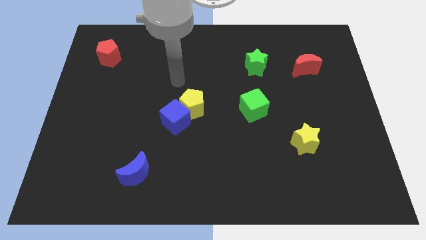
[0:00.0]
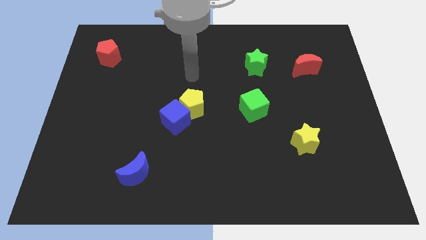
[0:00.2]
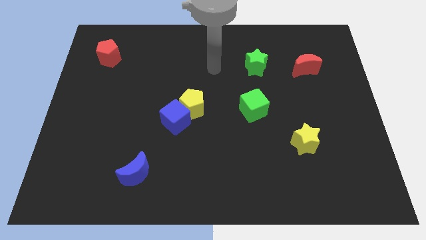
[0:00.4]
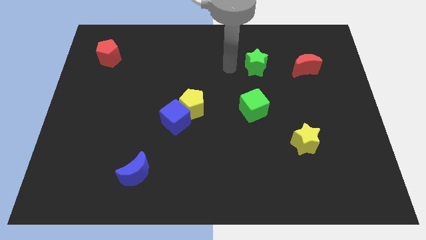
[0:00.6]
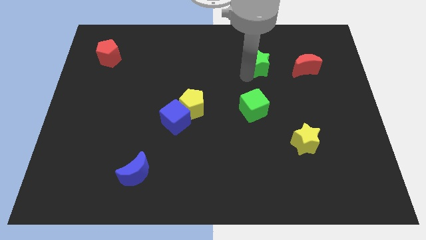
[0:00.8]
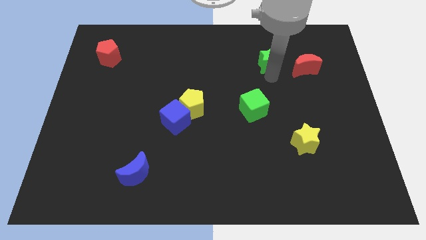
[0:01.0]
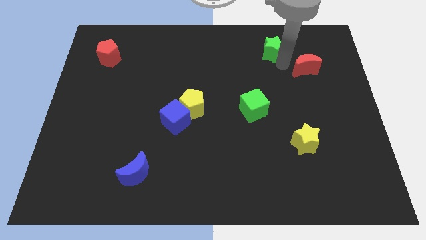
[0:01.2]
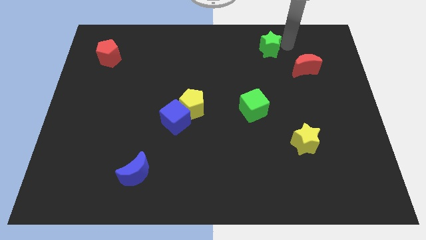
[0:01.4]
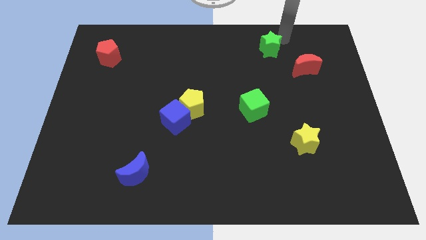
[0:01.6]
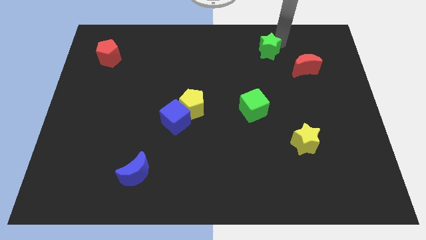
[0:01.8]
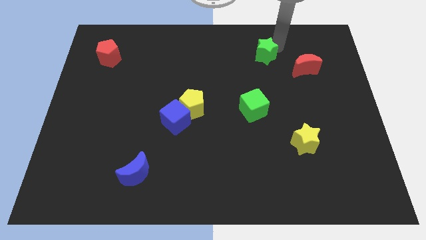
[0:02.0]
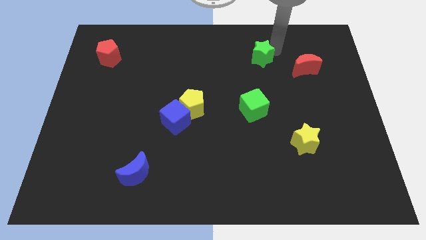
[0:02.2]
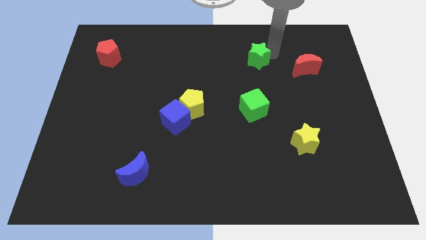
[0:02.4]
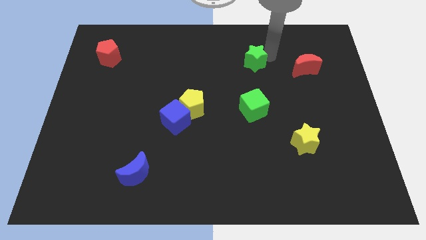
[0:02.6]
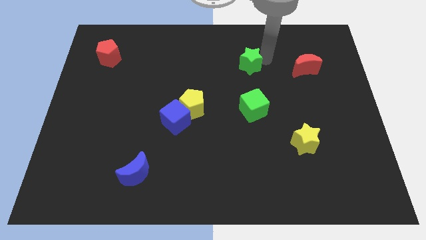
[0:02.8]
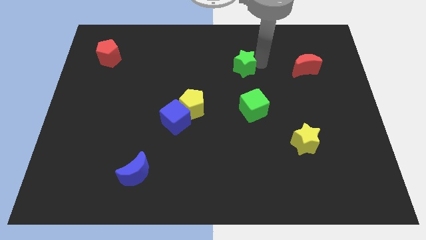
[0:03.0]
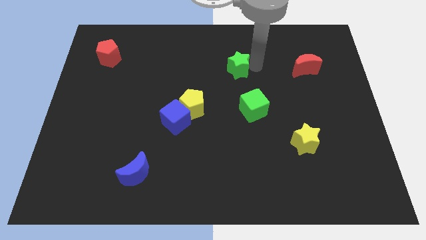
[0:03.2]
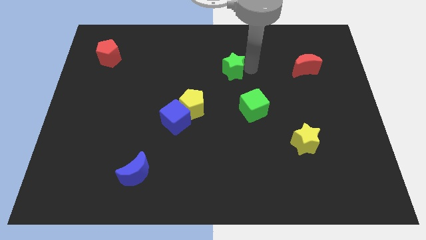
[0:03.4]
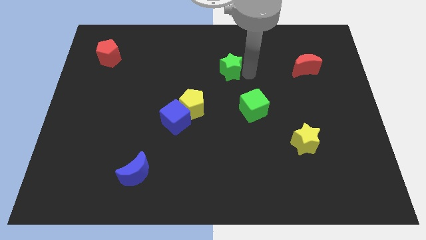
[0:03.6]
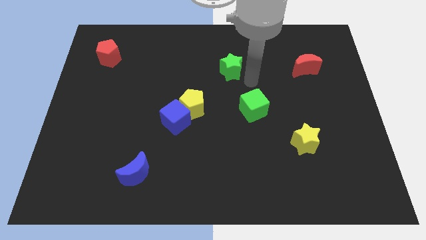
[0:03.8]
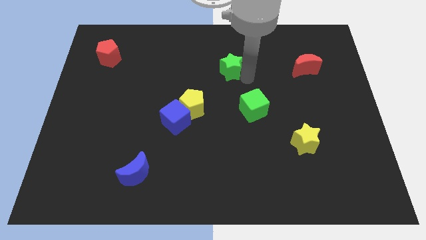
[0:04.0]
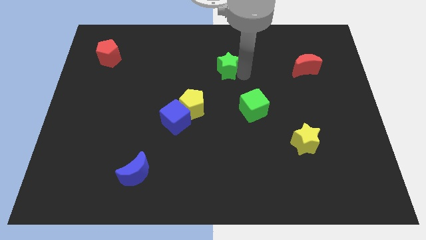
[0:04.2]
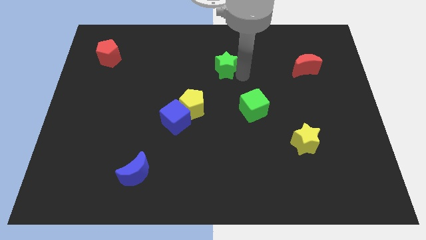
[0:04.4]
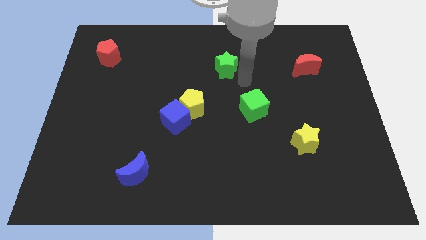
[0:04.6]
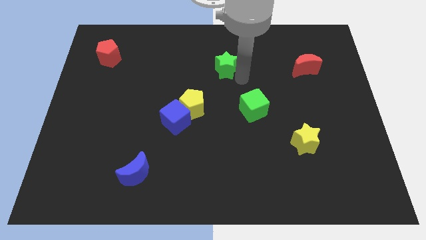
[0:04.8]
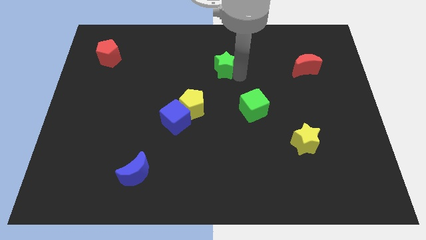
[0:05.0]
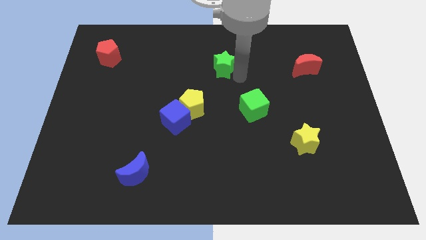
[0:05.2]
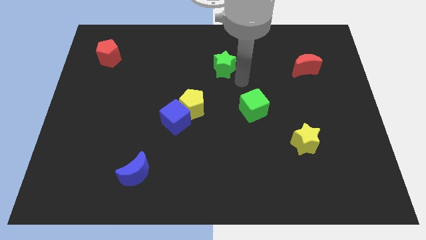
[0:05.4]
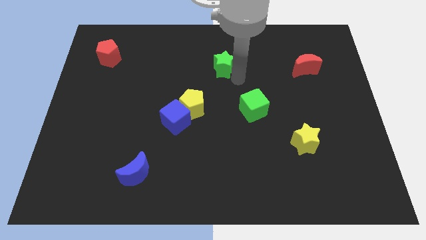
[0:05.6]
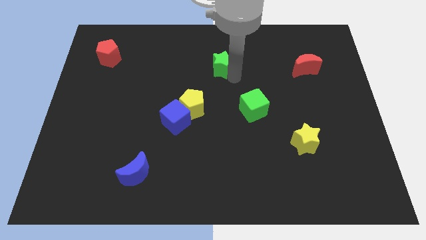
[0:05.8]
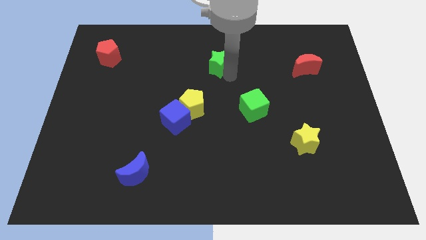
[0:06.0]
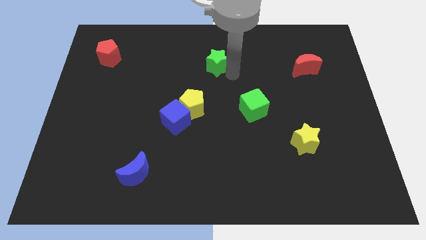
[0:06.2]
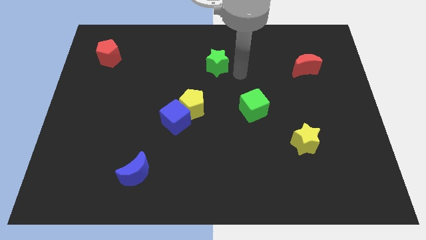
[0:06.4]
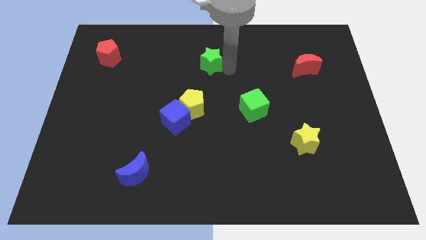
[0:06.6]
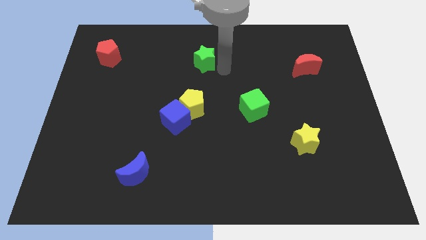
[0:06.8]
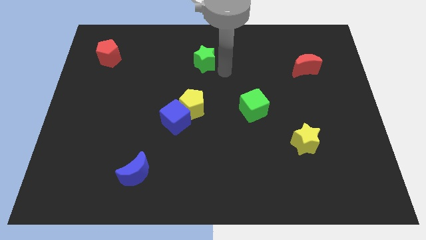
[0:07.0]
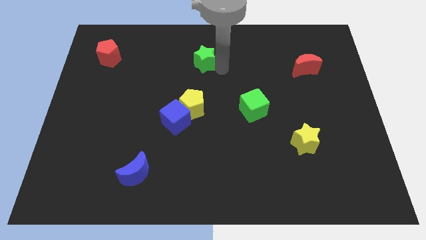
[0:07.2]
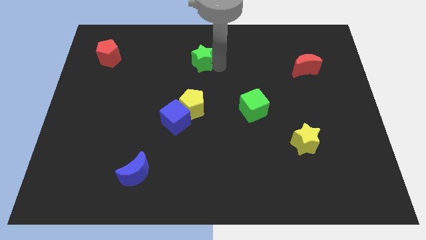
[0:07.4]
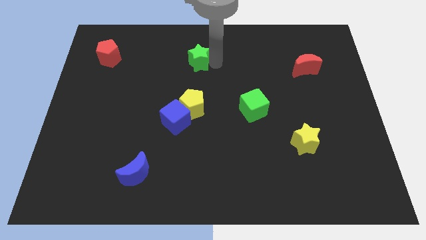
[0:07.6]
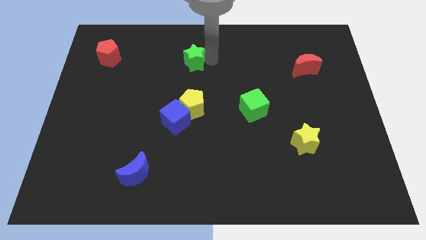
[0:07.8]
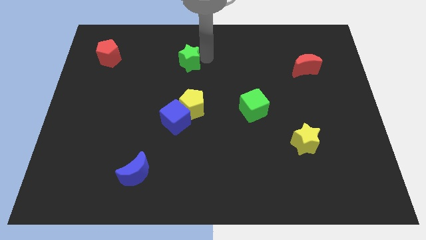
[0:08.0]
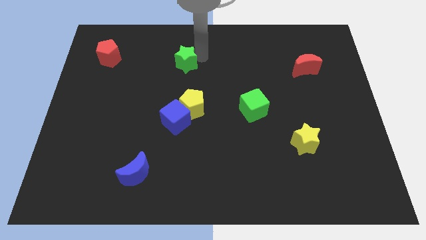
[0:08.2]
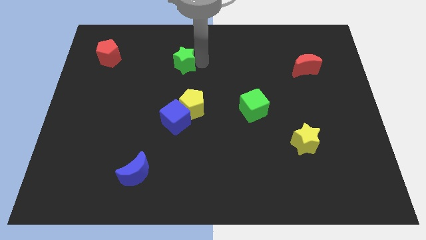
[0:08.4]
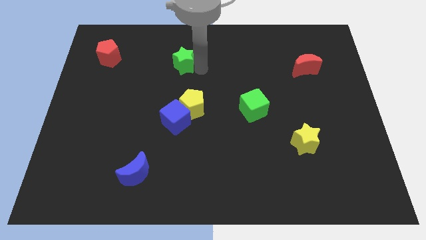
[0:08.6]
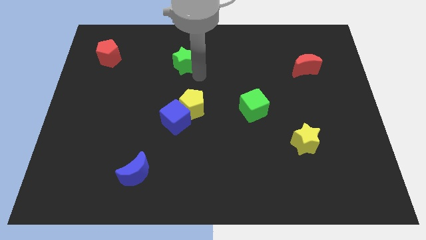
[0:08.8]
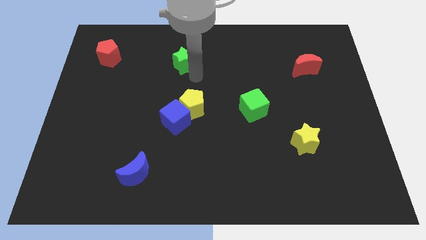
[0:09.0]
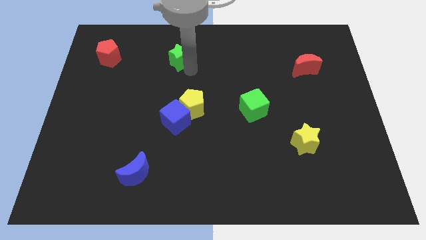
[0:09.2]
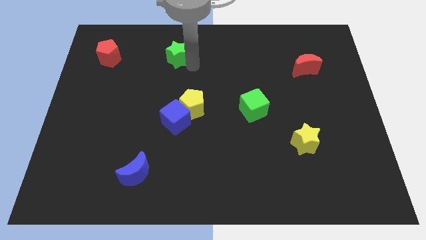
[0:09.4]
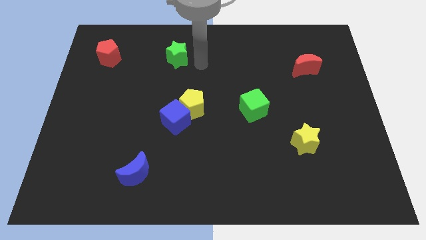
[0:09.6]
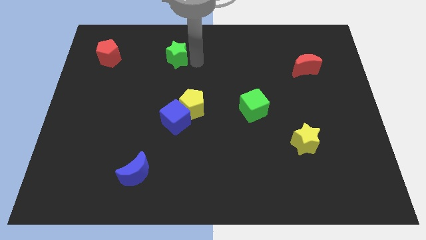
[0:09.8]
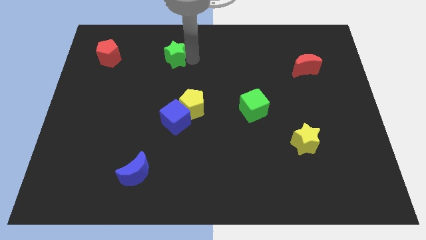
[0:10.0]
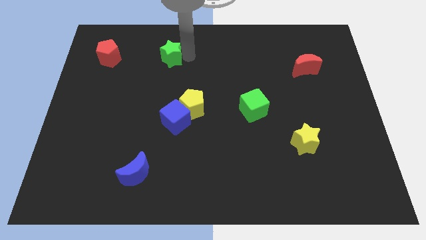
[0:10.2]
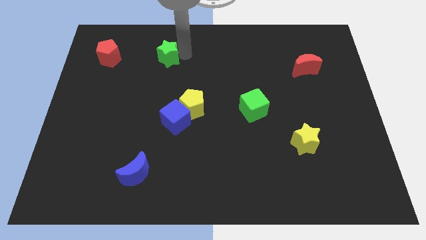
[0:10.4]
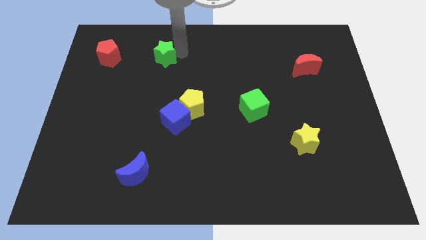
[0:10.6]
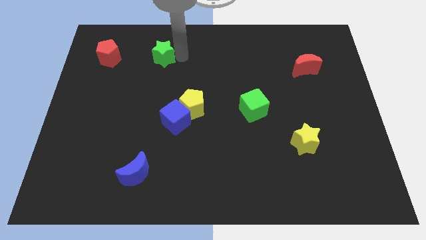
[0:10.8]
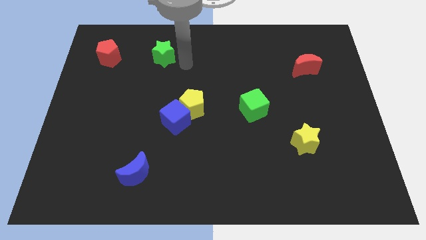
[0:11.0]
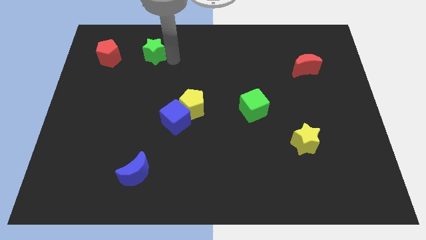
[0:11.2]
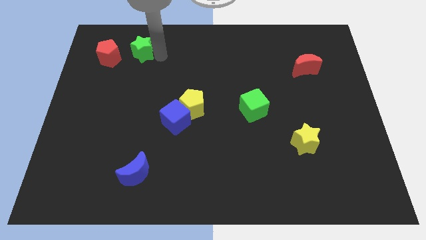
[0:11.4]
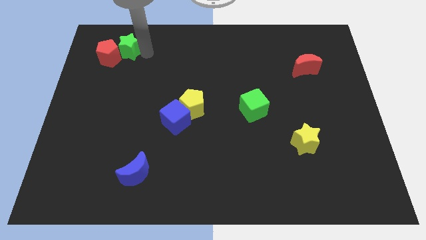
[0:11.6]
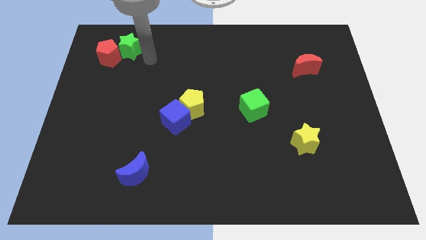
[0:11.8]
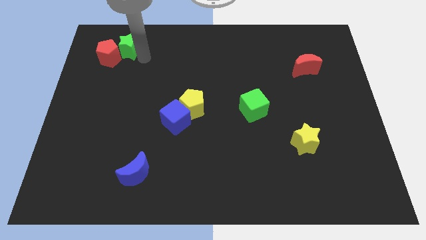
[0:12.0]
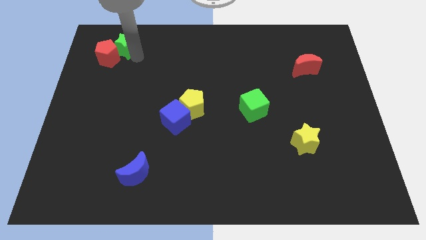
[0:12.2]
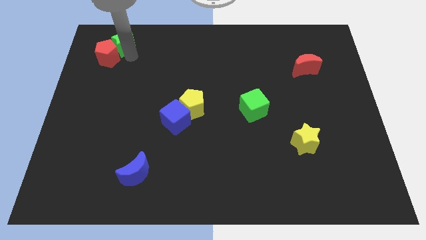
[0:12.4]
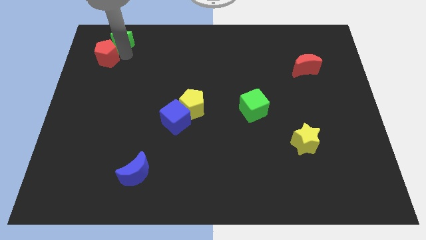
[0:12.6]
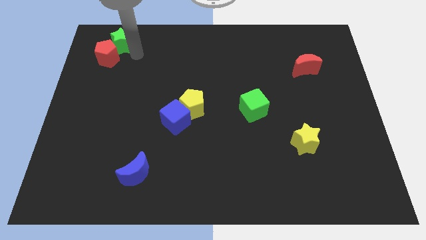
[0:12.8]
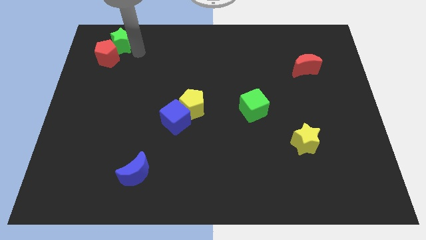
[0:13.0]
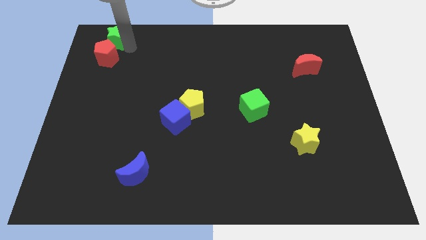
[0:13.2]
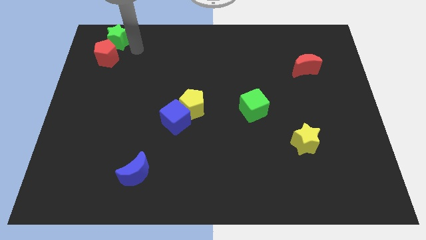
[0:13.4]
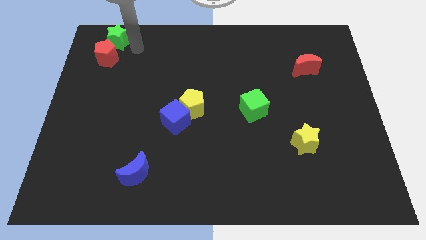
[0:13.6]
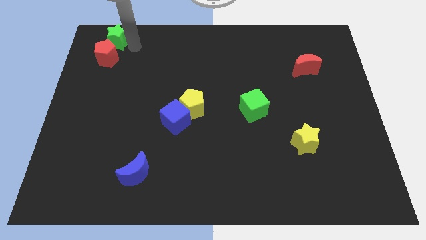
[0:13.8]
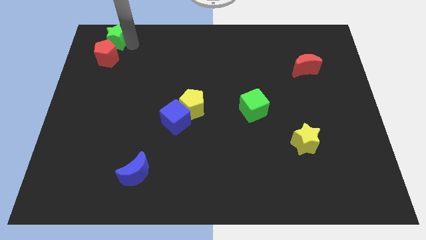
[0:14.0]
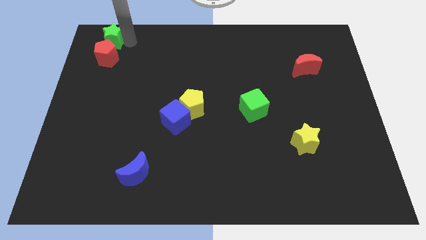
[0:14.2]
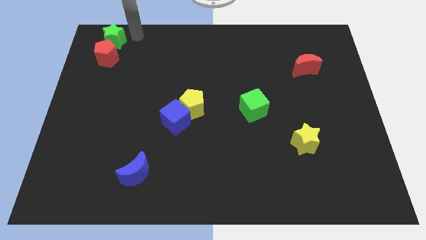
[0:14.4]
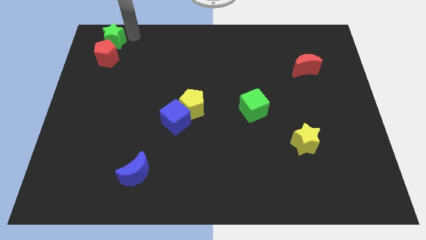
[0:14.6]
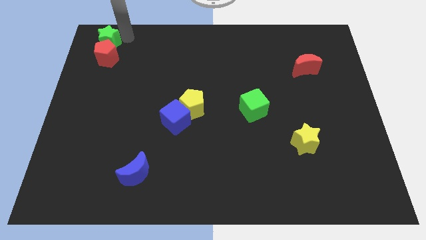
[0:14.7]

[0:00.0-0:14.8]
slide the green star to the upper left corner
